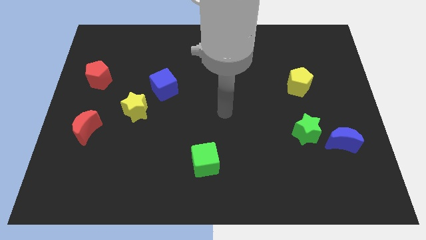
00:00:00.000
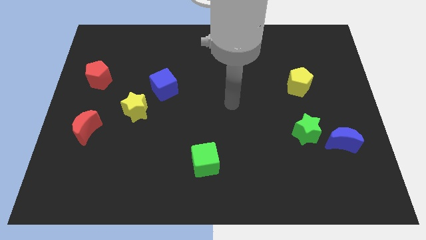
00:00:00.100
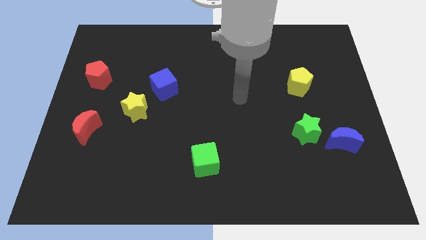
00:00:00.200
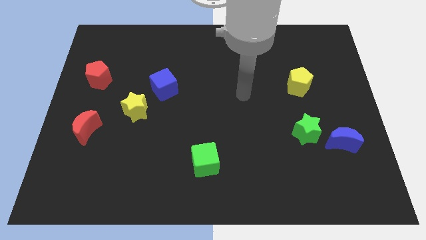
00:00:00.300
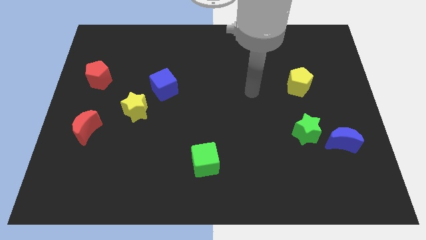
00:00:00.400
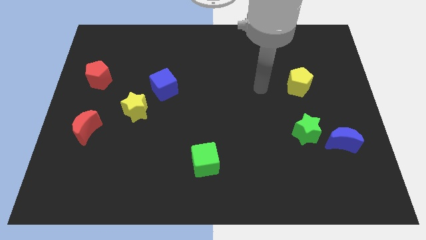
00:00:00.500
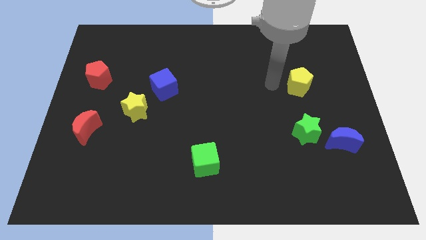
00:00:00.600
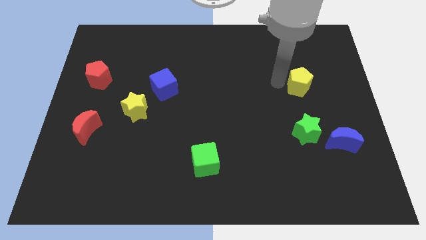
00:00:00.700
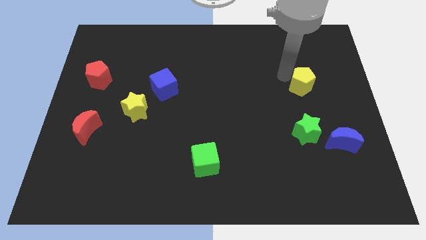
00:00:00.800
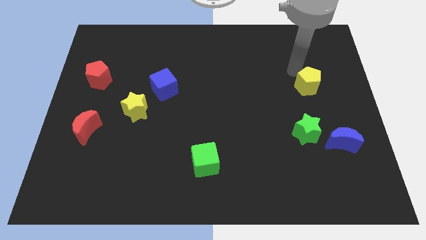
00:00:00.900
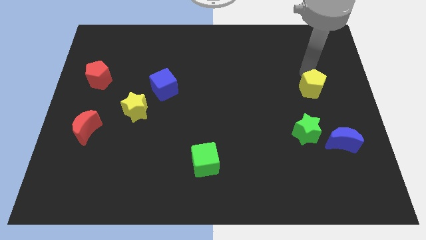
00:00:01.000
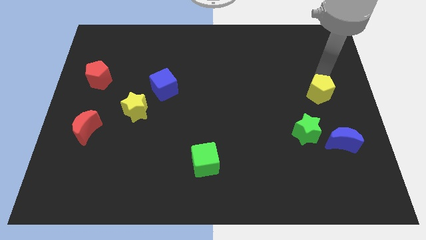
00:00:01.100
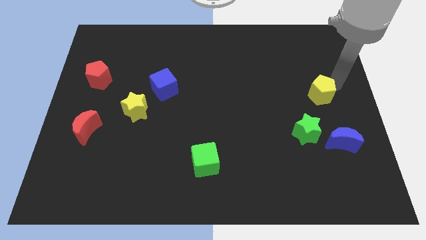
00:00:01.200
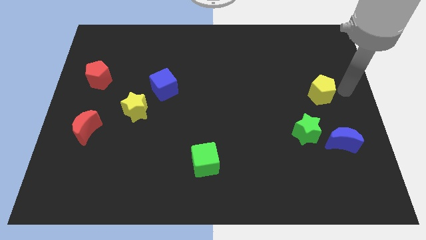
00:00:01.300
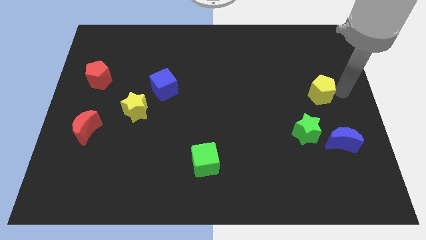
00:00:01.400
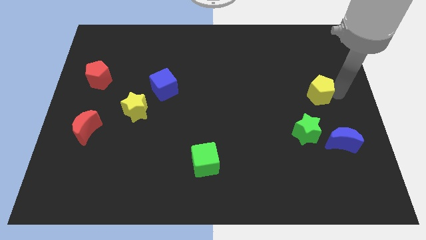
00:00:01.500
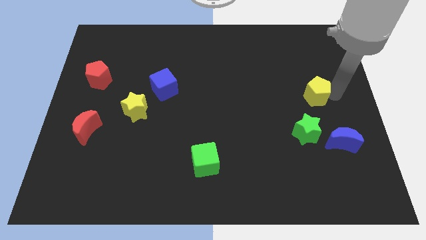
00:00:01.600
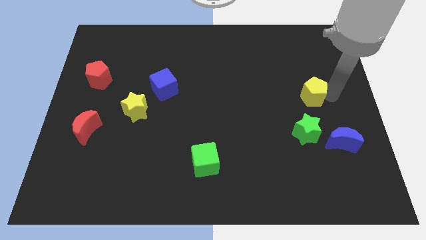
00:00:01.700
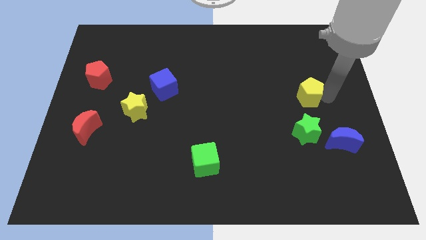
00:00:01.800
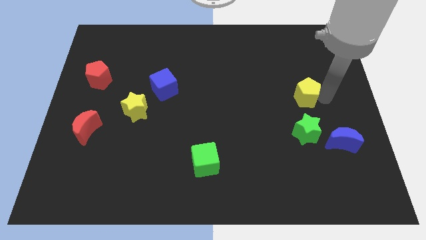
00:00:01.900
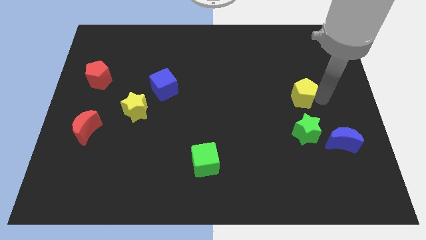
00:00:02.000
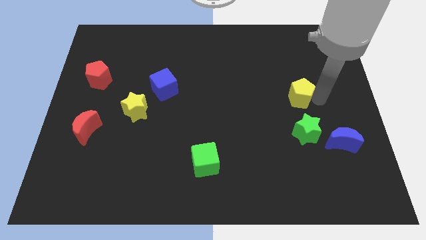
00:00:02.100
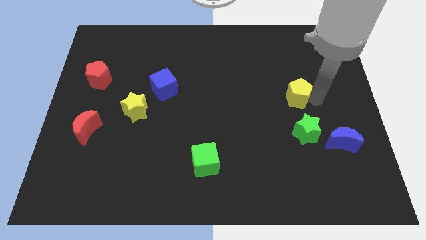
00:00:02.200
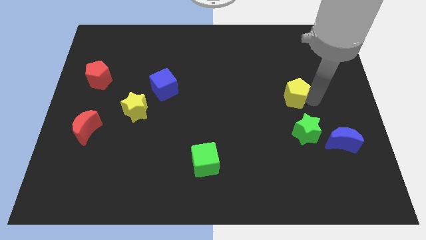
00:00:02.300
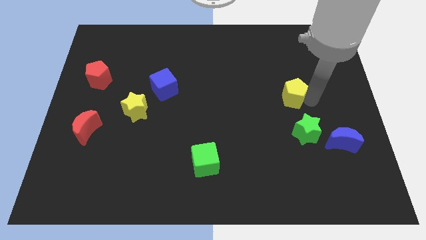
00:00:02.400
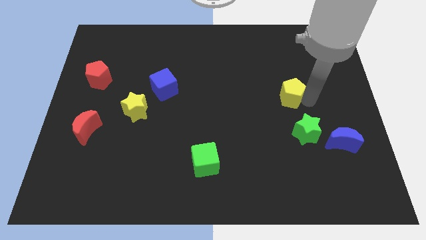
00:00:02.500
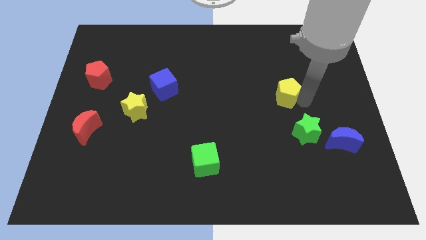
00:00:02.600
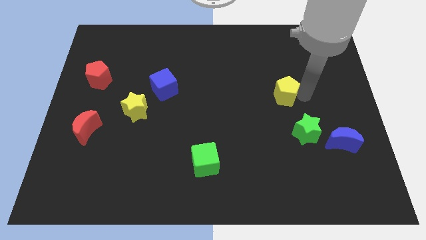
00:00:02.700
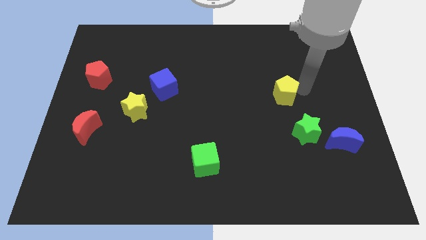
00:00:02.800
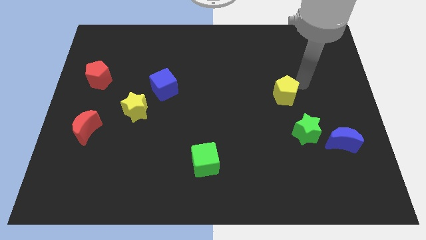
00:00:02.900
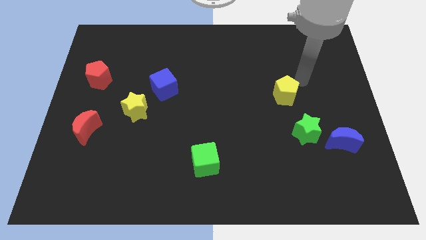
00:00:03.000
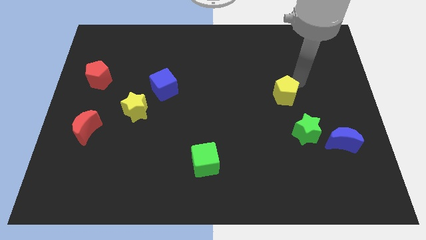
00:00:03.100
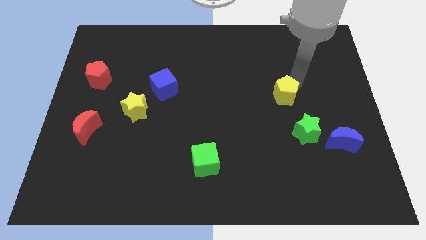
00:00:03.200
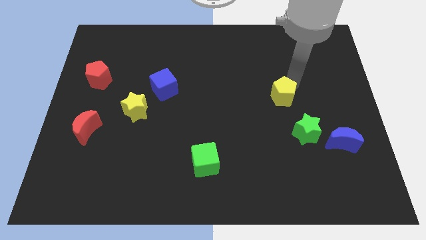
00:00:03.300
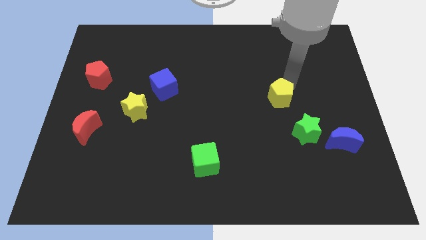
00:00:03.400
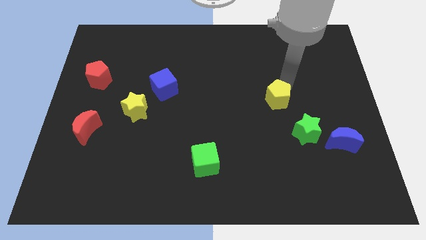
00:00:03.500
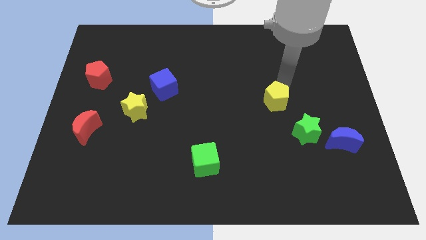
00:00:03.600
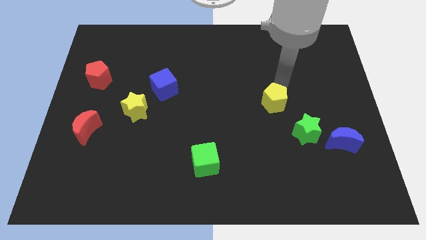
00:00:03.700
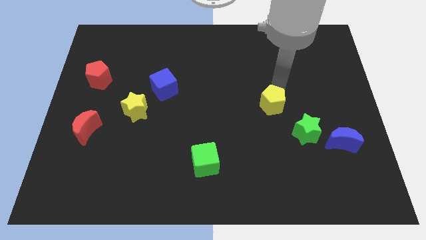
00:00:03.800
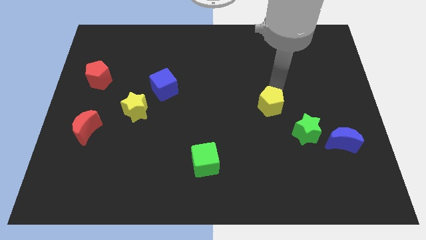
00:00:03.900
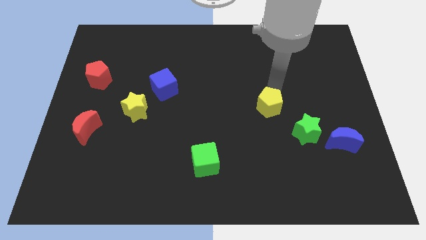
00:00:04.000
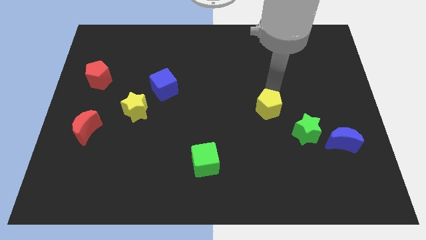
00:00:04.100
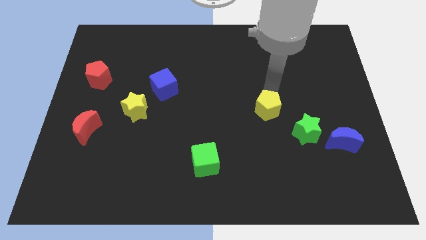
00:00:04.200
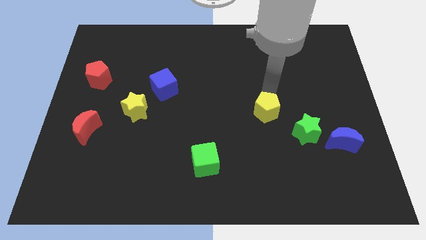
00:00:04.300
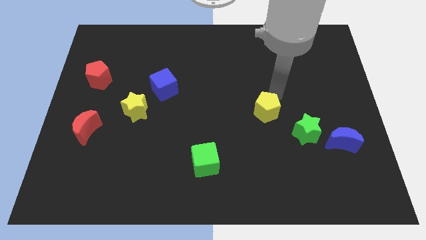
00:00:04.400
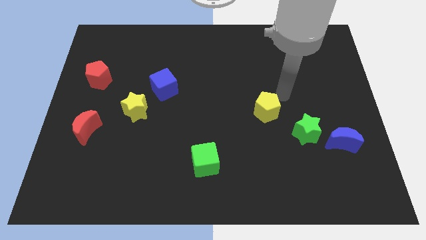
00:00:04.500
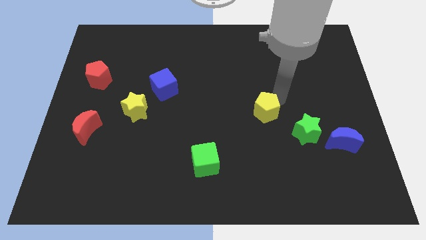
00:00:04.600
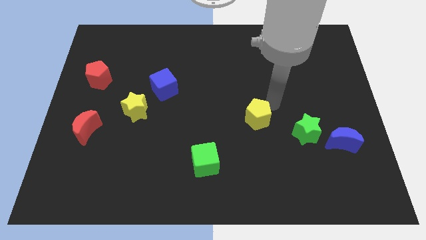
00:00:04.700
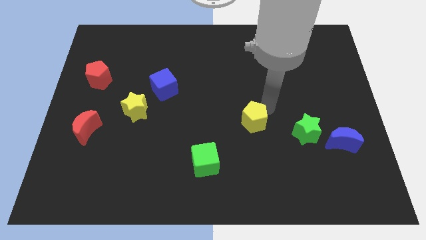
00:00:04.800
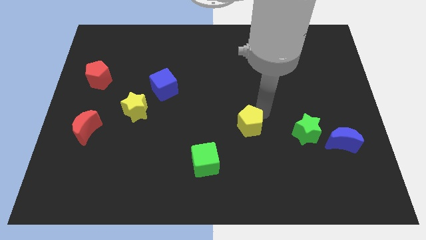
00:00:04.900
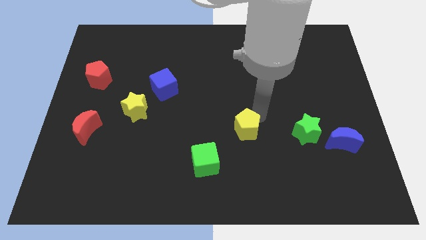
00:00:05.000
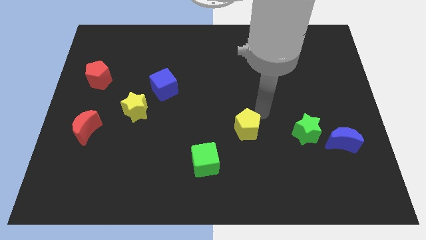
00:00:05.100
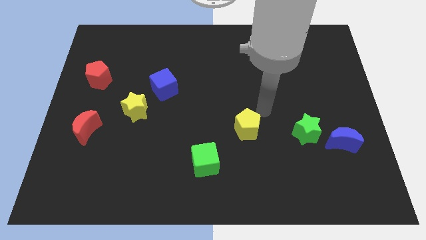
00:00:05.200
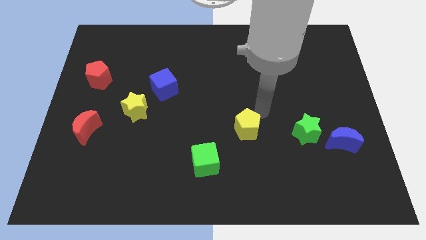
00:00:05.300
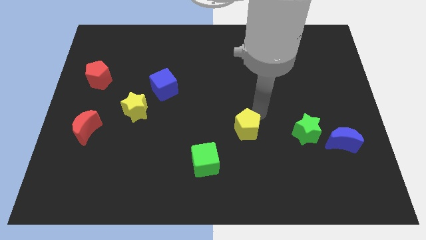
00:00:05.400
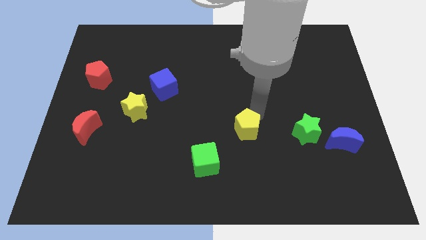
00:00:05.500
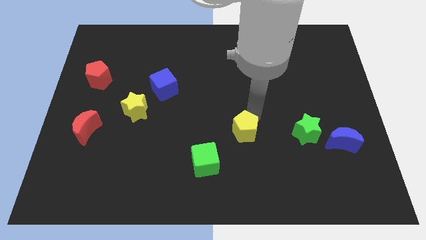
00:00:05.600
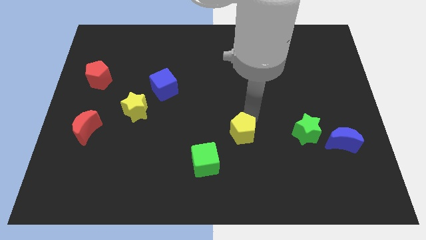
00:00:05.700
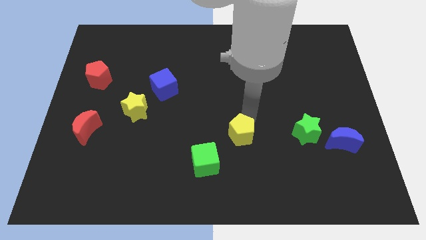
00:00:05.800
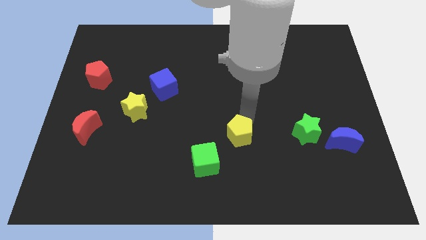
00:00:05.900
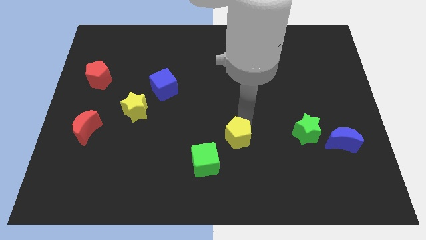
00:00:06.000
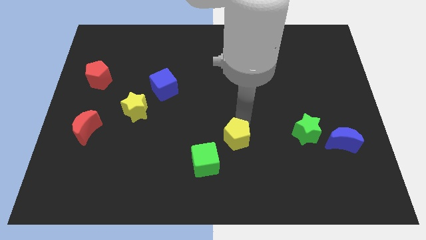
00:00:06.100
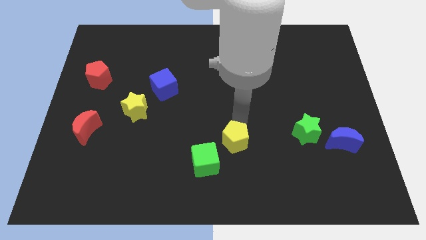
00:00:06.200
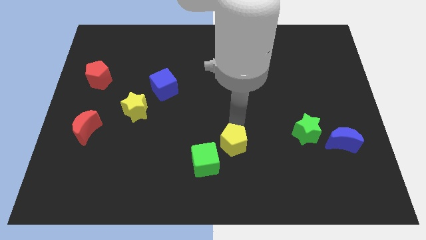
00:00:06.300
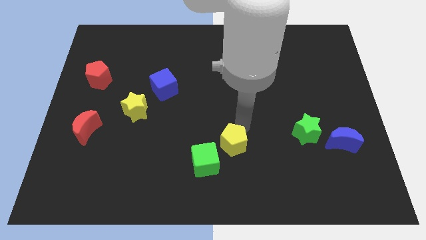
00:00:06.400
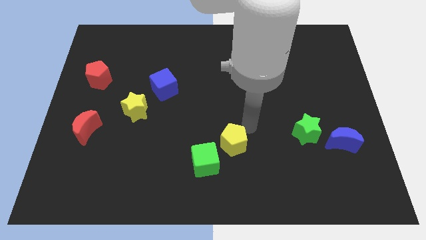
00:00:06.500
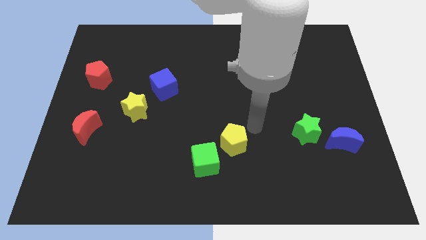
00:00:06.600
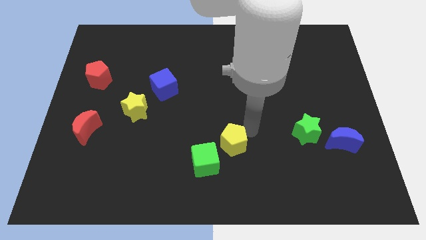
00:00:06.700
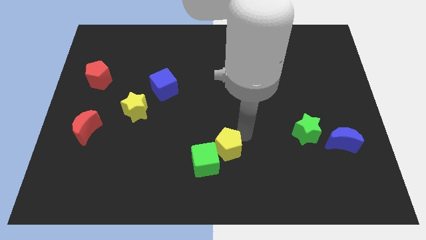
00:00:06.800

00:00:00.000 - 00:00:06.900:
slide the yellow pentagon close to the green cube

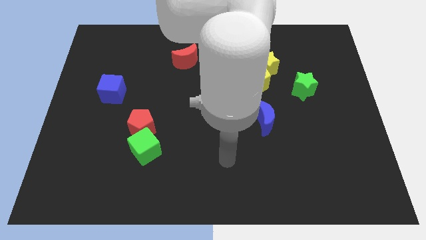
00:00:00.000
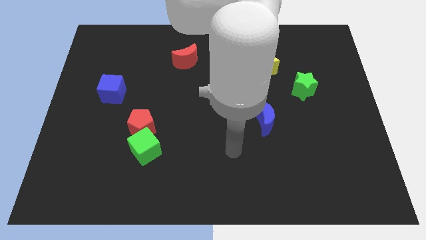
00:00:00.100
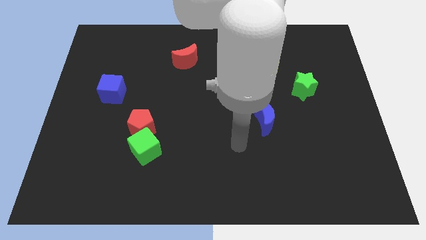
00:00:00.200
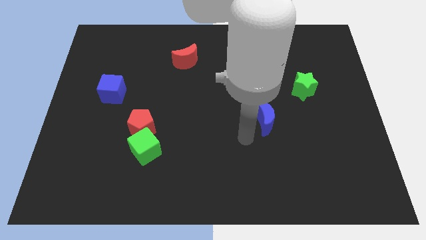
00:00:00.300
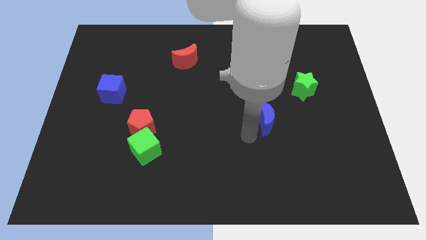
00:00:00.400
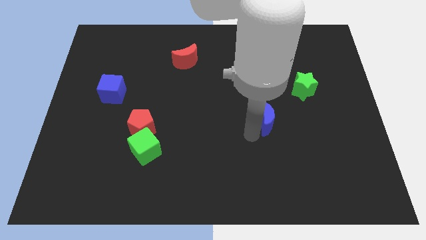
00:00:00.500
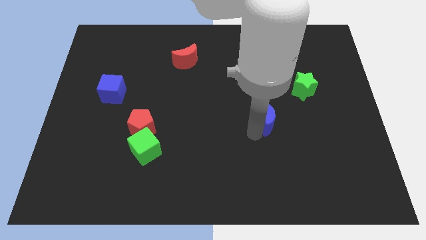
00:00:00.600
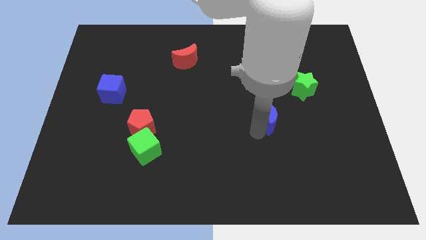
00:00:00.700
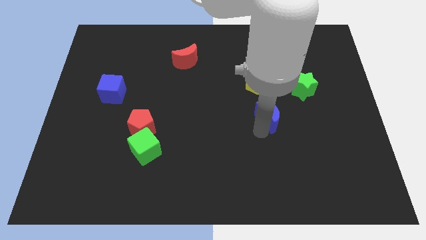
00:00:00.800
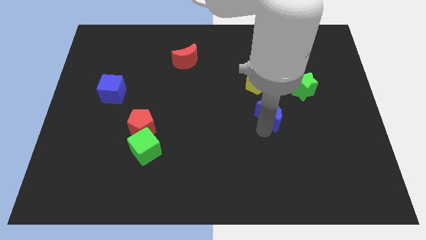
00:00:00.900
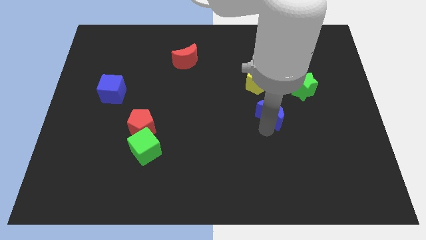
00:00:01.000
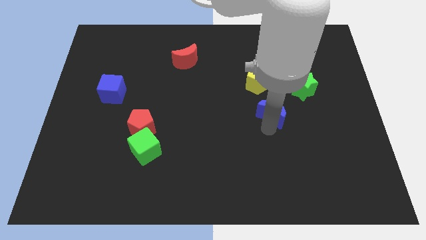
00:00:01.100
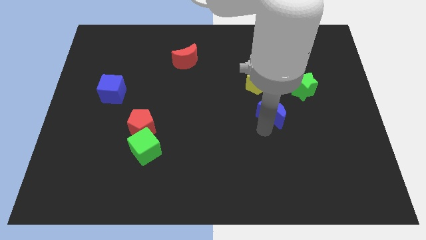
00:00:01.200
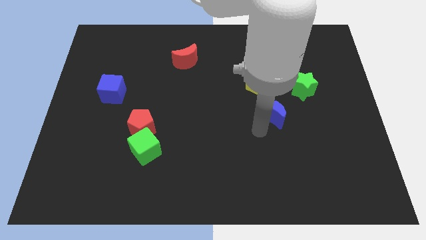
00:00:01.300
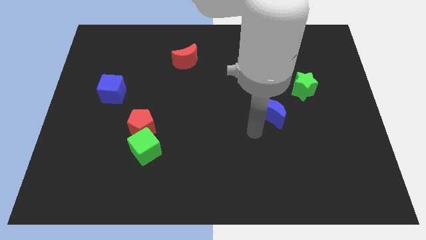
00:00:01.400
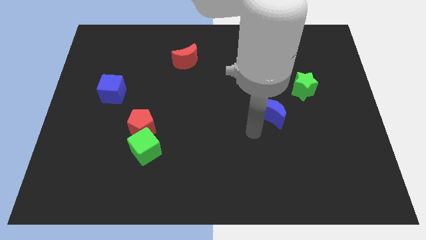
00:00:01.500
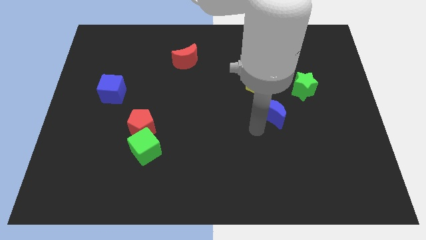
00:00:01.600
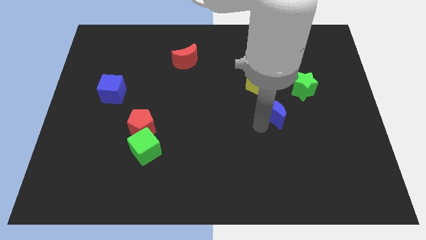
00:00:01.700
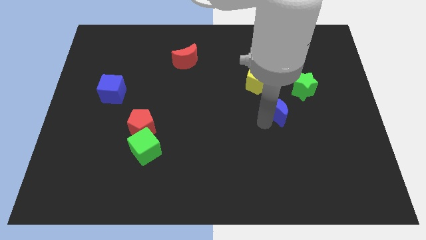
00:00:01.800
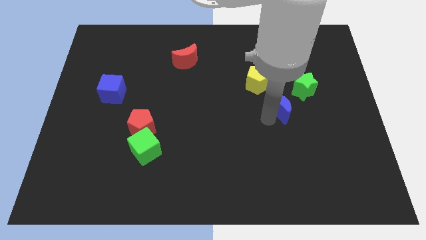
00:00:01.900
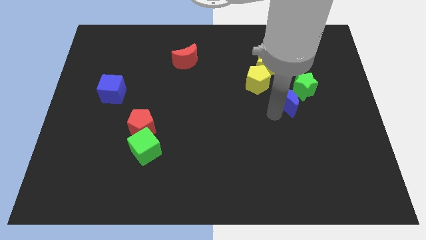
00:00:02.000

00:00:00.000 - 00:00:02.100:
slide the blue moon close to the green star
